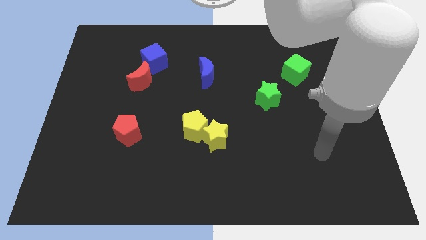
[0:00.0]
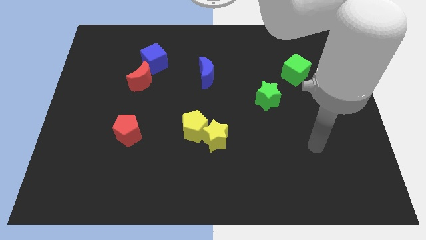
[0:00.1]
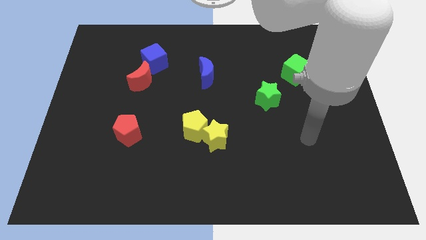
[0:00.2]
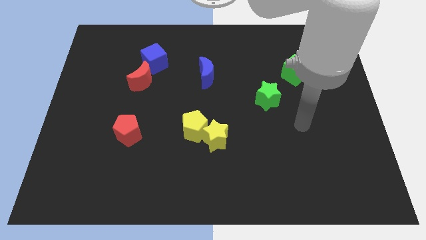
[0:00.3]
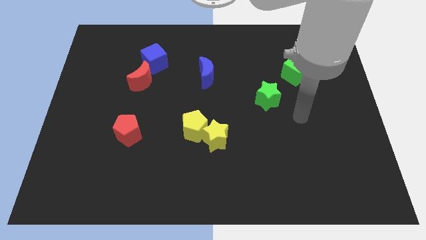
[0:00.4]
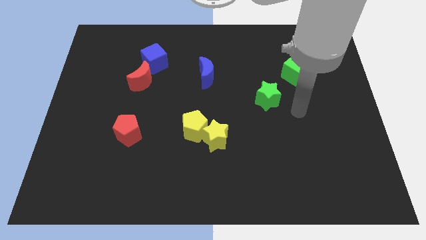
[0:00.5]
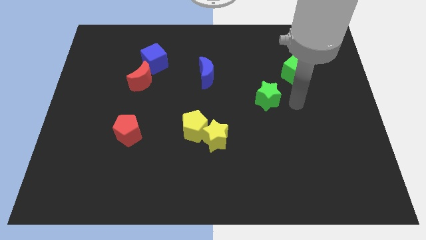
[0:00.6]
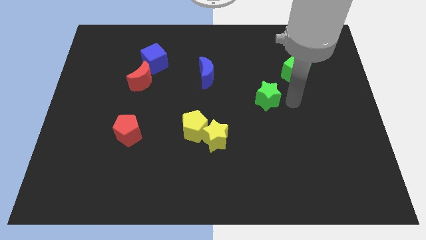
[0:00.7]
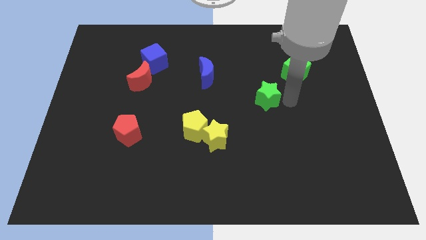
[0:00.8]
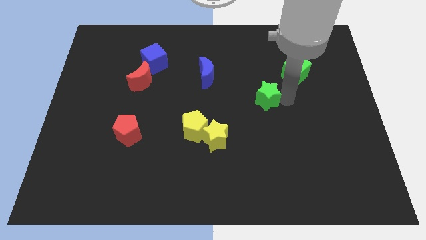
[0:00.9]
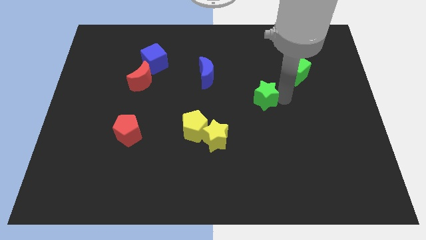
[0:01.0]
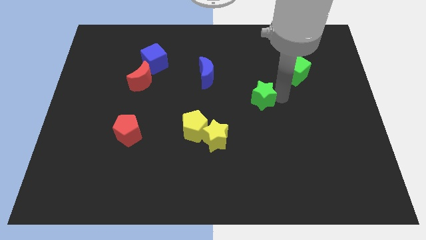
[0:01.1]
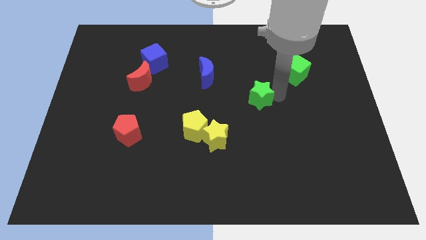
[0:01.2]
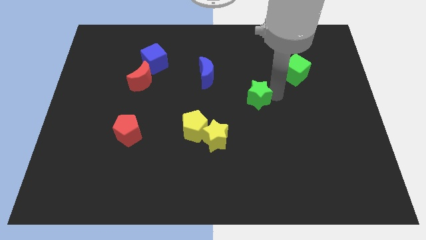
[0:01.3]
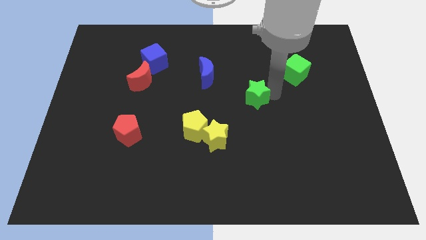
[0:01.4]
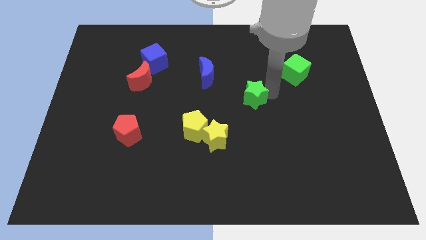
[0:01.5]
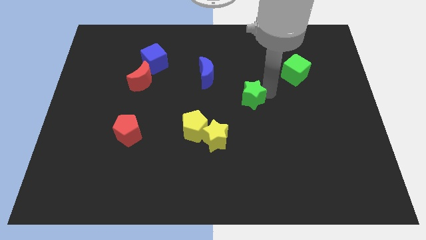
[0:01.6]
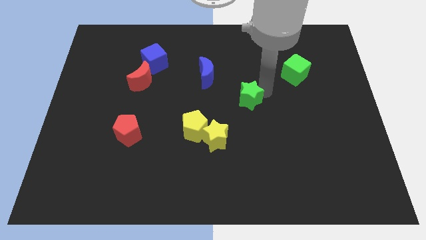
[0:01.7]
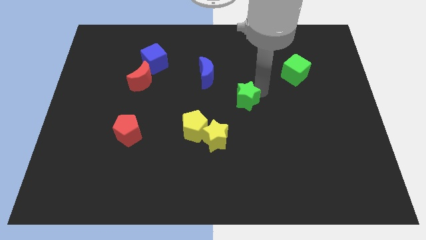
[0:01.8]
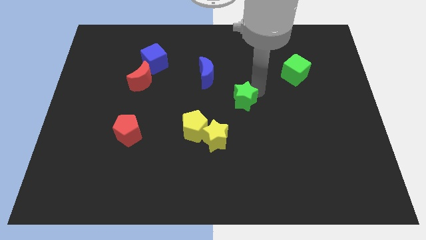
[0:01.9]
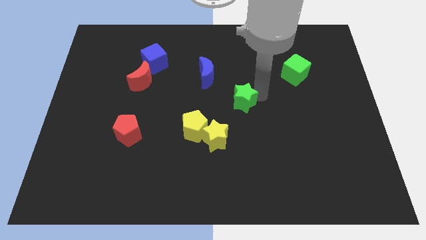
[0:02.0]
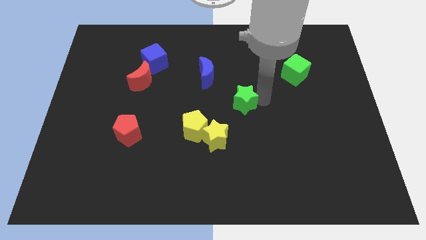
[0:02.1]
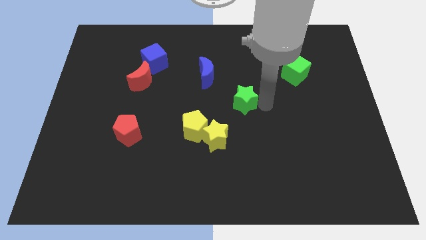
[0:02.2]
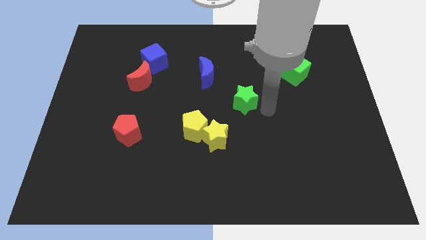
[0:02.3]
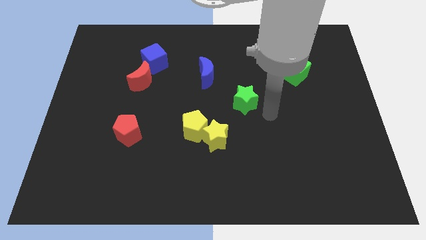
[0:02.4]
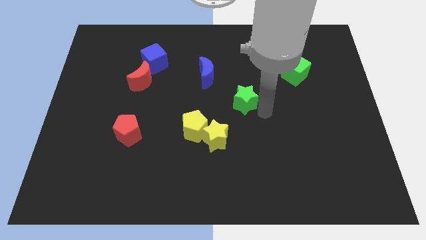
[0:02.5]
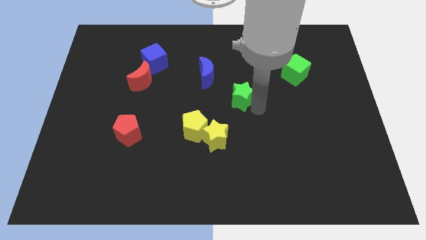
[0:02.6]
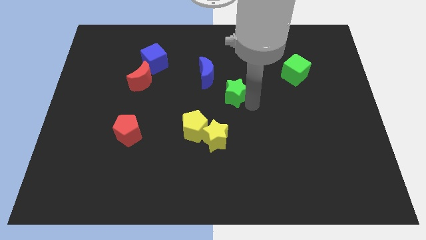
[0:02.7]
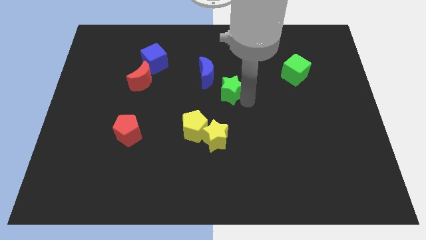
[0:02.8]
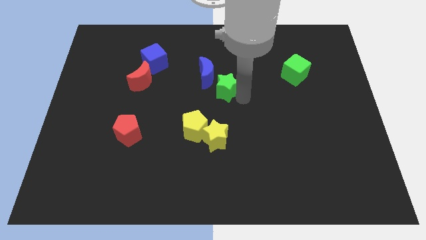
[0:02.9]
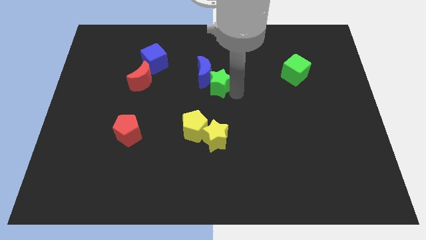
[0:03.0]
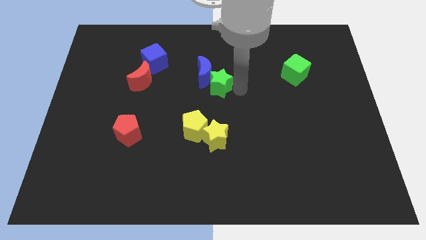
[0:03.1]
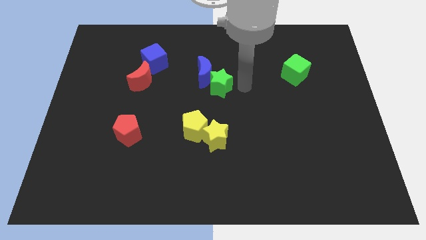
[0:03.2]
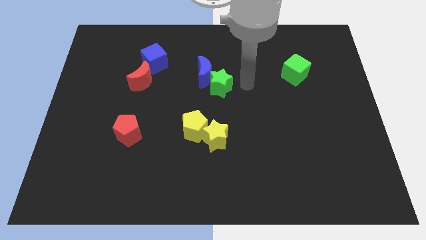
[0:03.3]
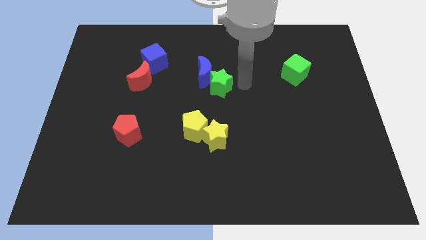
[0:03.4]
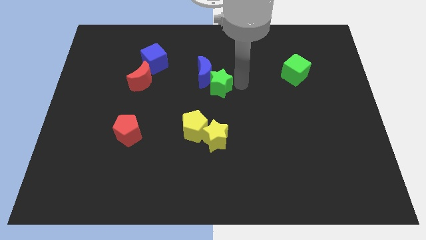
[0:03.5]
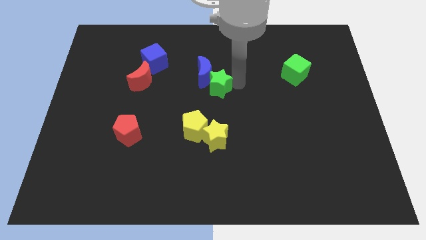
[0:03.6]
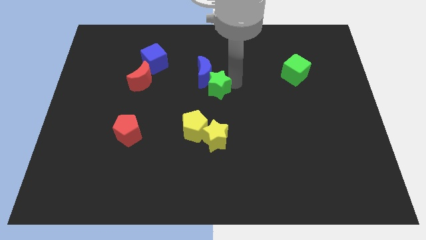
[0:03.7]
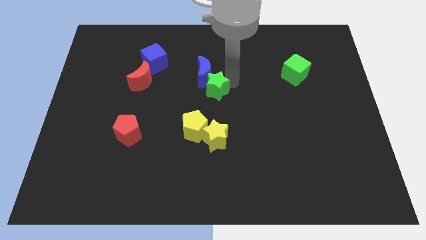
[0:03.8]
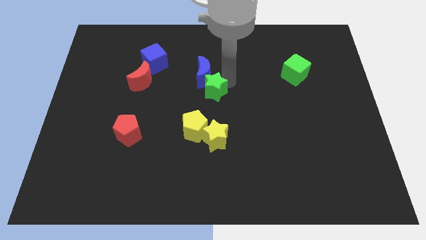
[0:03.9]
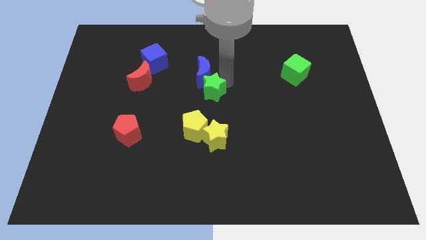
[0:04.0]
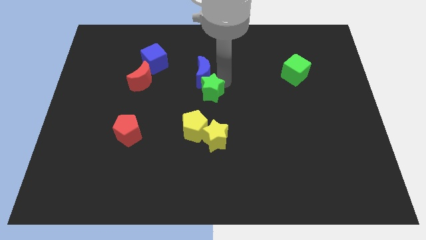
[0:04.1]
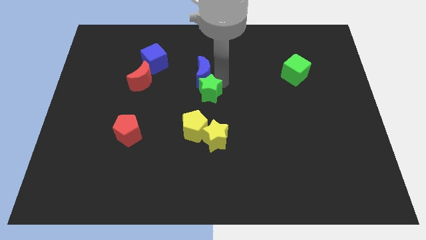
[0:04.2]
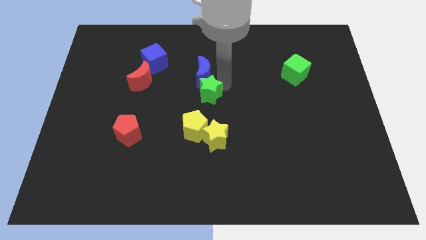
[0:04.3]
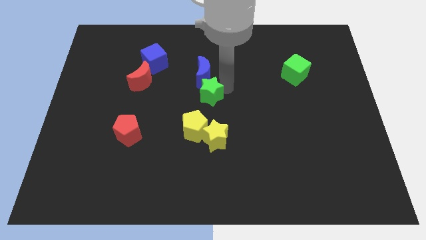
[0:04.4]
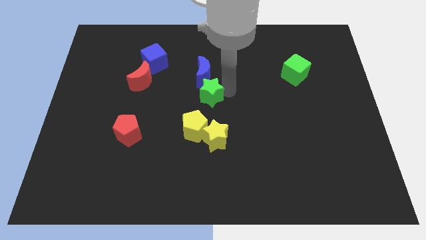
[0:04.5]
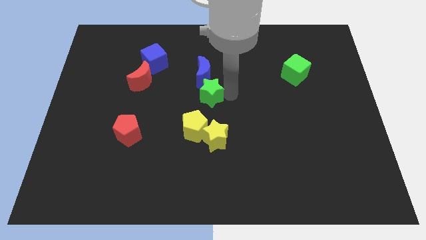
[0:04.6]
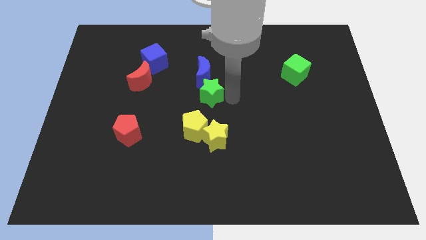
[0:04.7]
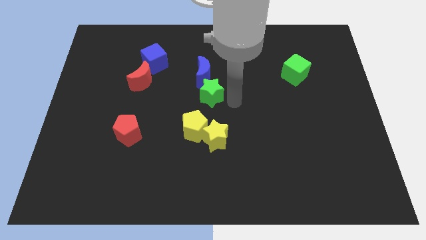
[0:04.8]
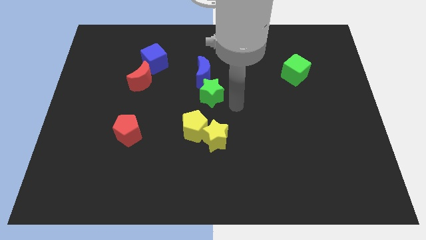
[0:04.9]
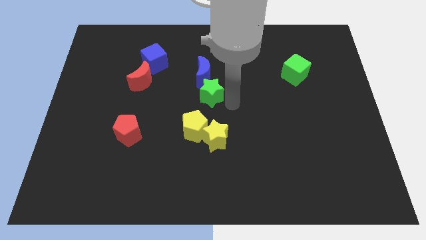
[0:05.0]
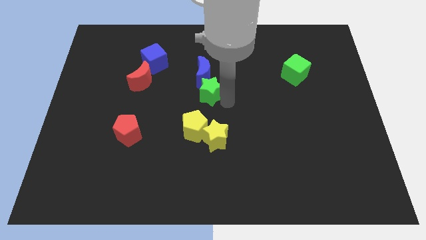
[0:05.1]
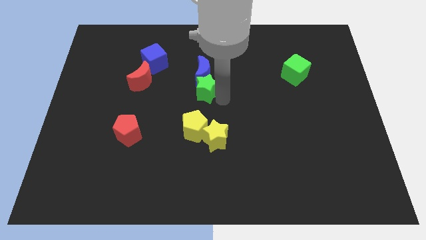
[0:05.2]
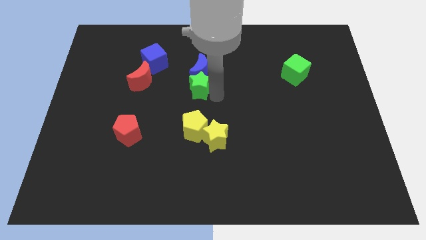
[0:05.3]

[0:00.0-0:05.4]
put the green star right of the red moon

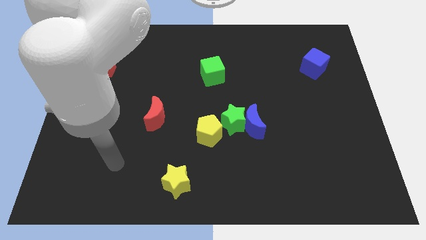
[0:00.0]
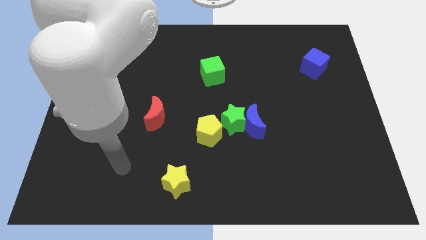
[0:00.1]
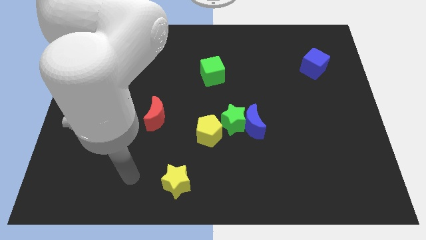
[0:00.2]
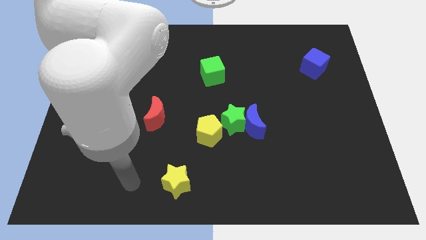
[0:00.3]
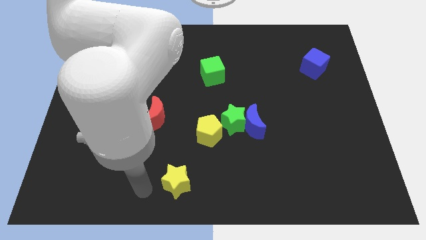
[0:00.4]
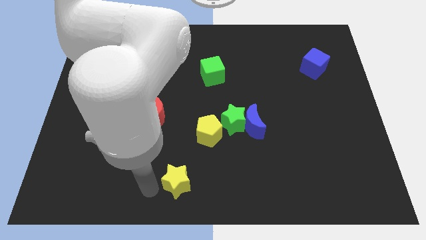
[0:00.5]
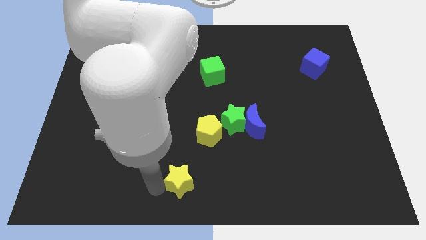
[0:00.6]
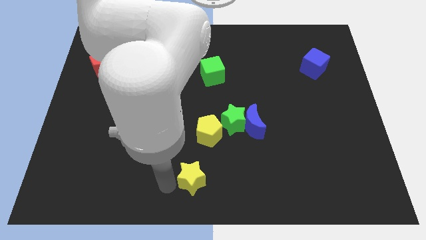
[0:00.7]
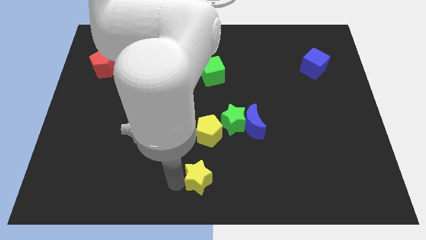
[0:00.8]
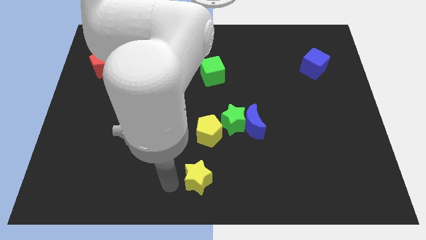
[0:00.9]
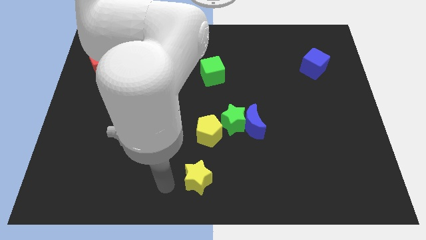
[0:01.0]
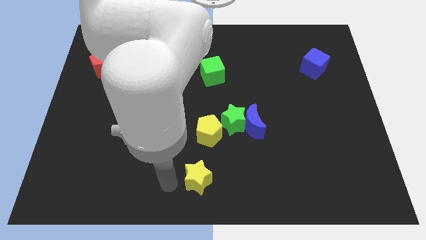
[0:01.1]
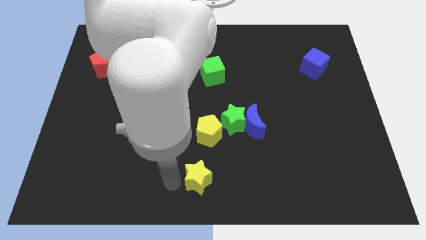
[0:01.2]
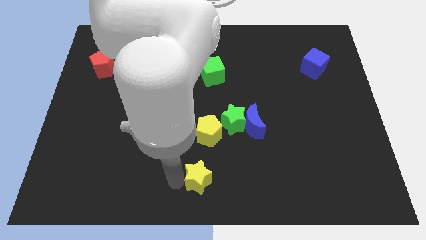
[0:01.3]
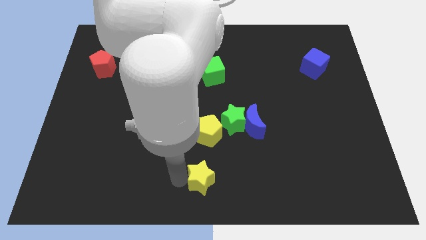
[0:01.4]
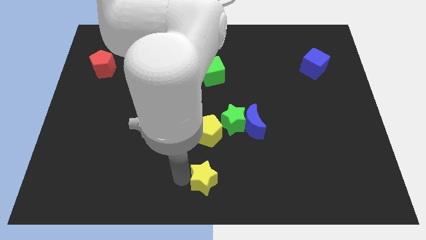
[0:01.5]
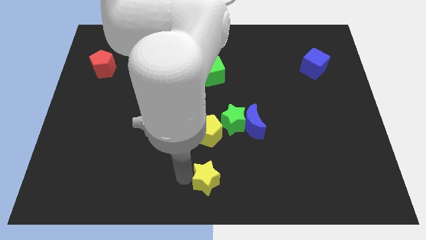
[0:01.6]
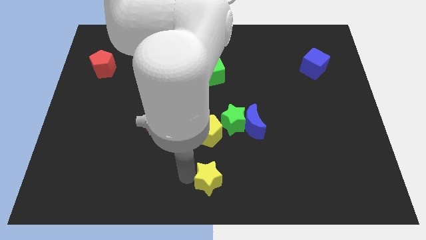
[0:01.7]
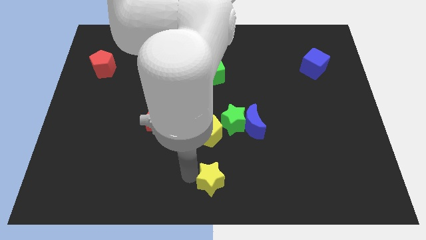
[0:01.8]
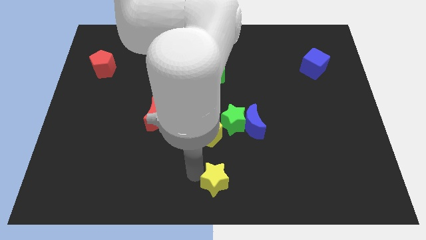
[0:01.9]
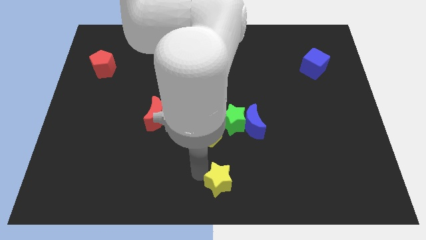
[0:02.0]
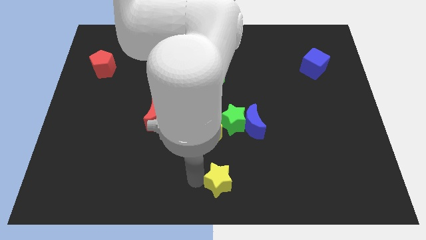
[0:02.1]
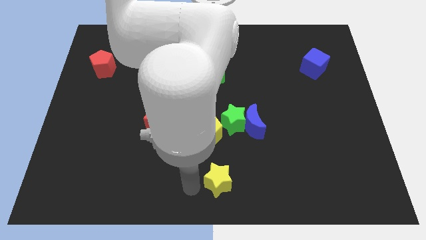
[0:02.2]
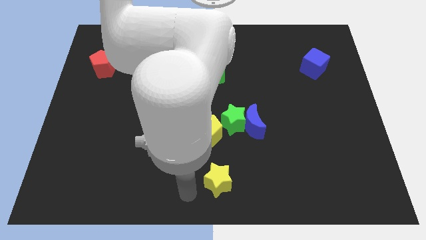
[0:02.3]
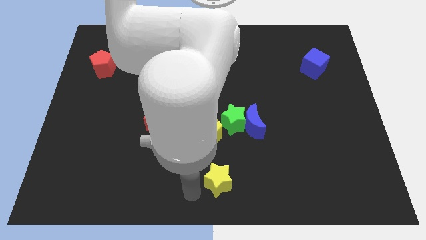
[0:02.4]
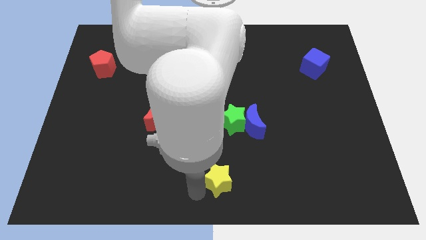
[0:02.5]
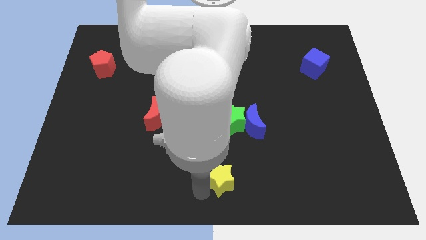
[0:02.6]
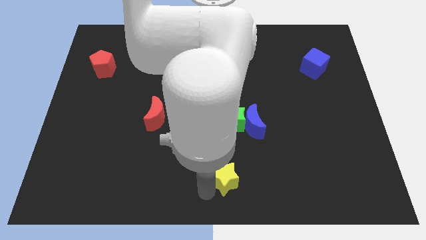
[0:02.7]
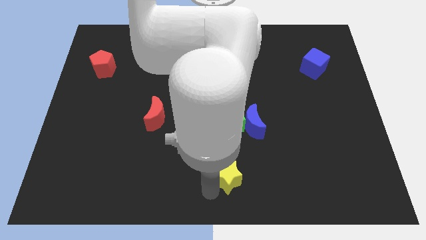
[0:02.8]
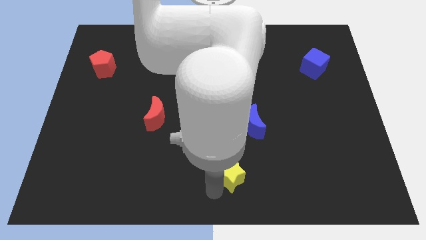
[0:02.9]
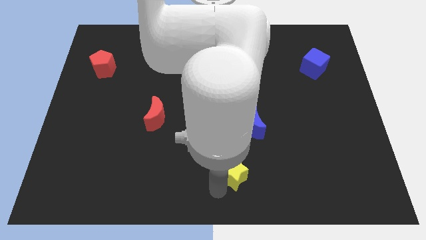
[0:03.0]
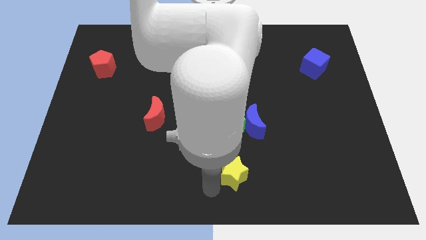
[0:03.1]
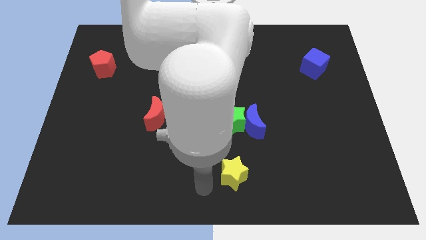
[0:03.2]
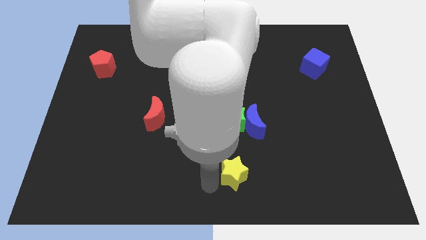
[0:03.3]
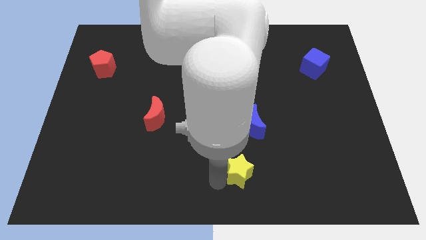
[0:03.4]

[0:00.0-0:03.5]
slide the yellow star below the blue moon
